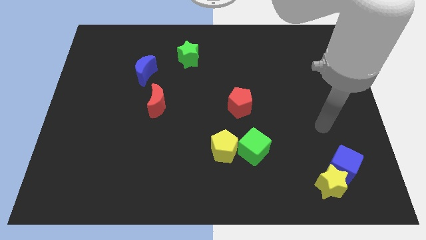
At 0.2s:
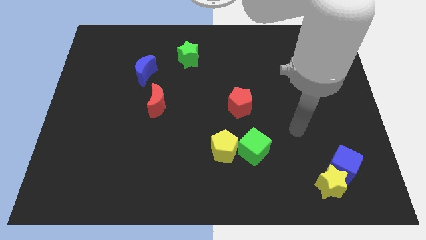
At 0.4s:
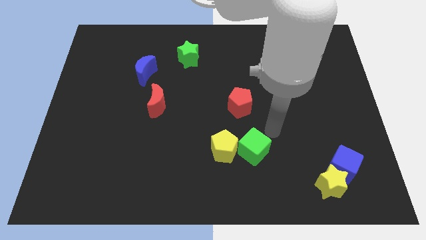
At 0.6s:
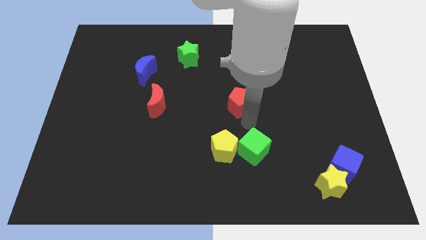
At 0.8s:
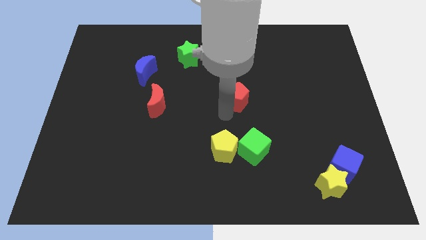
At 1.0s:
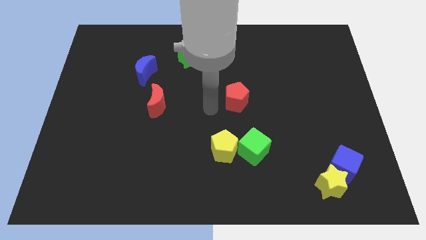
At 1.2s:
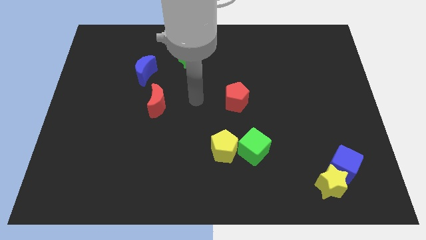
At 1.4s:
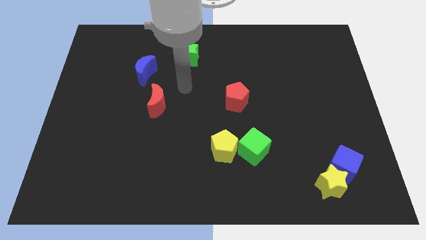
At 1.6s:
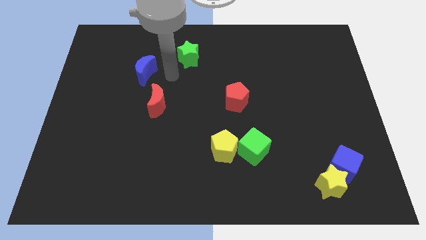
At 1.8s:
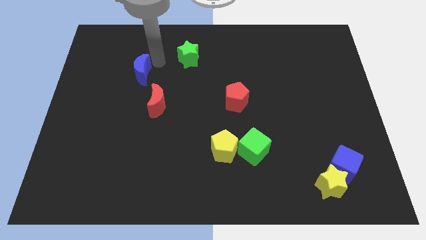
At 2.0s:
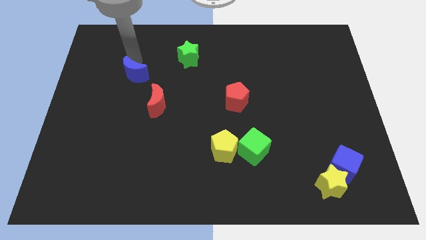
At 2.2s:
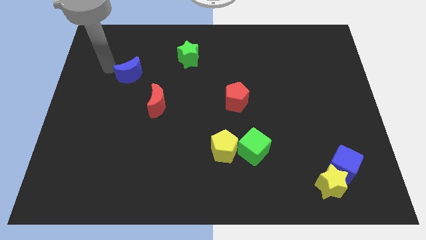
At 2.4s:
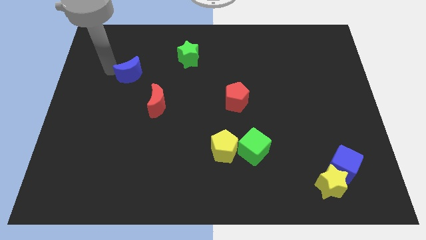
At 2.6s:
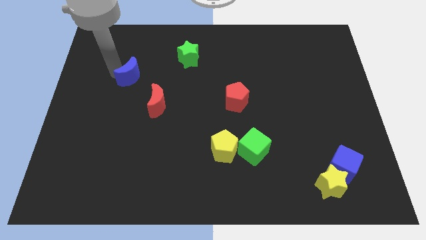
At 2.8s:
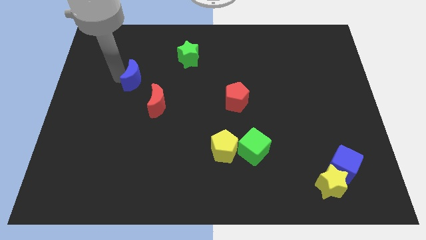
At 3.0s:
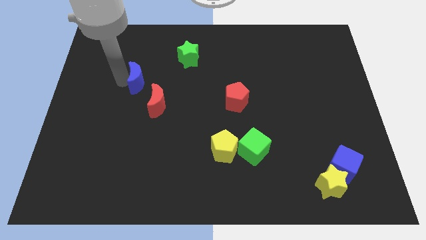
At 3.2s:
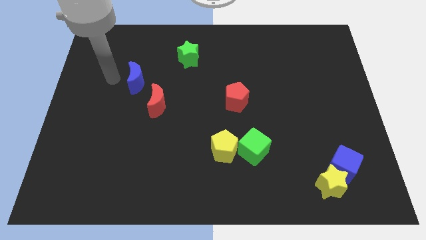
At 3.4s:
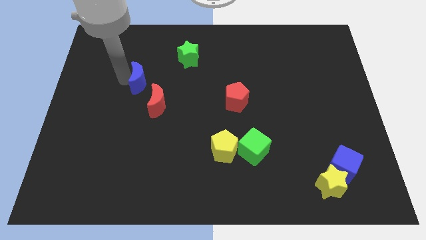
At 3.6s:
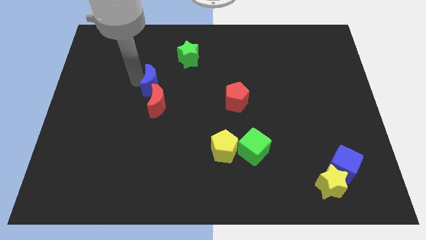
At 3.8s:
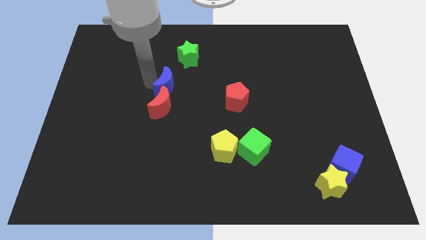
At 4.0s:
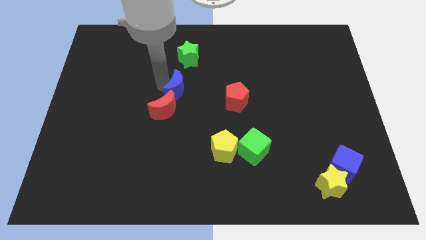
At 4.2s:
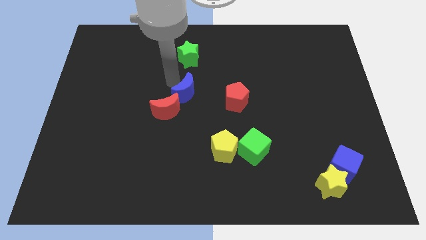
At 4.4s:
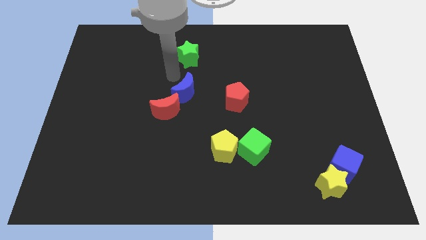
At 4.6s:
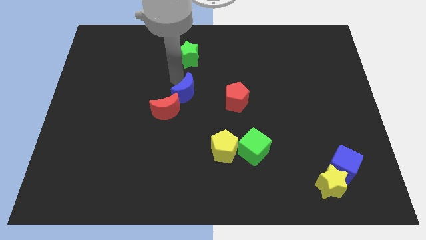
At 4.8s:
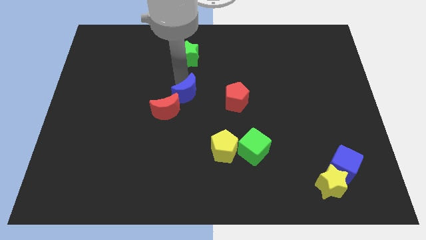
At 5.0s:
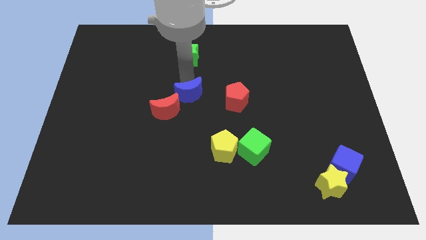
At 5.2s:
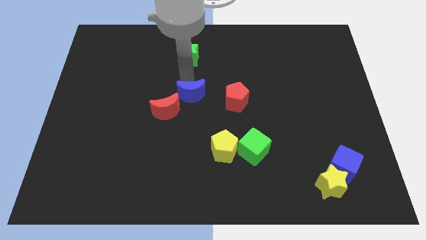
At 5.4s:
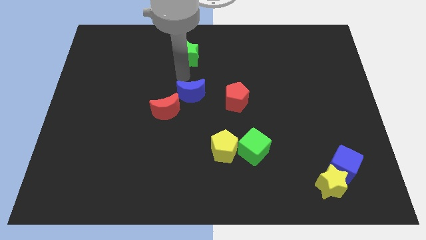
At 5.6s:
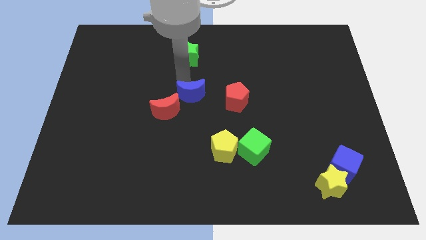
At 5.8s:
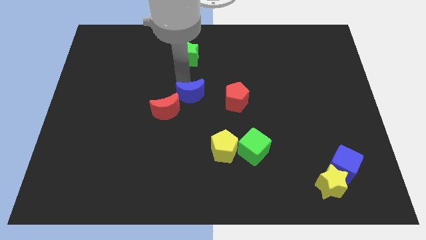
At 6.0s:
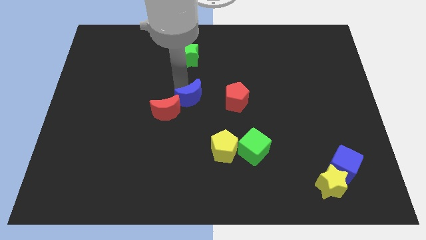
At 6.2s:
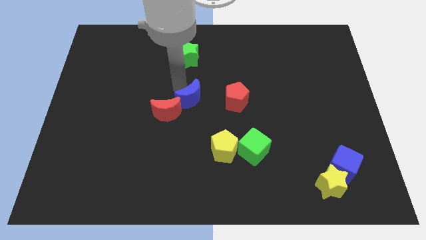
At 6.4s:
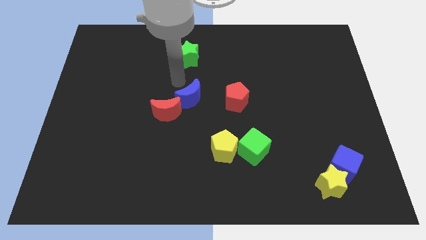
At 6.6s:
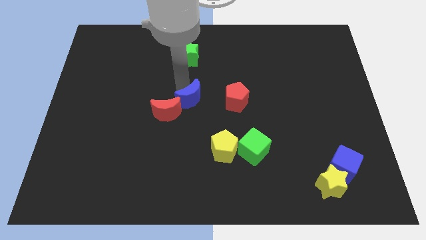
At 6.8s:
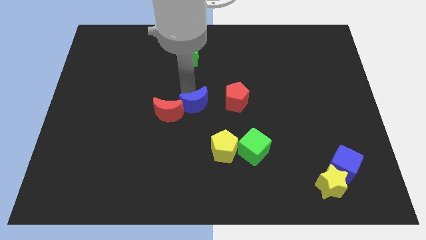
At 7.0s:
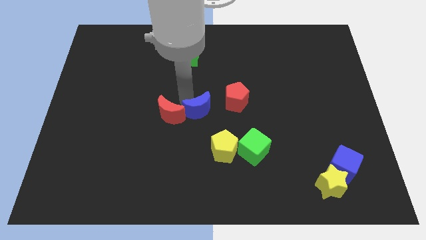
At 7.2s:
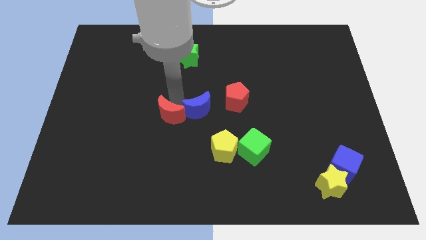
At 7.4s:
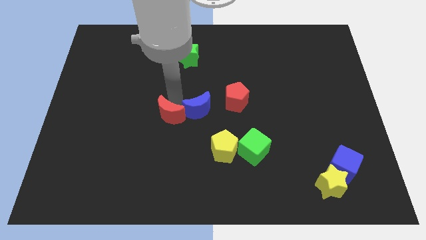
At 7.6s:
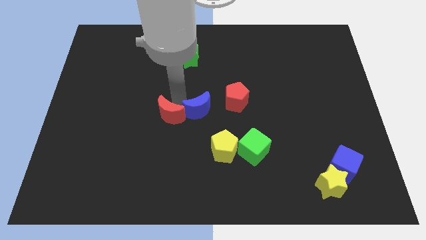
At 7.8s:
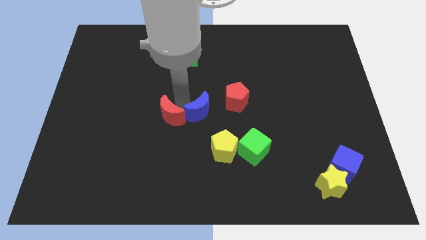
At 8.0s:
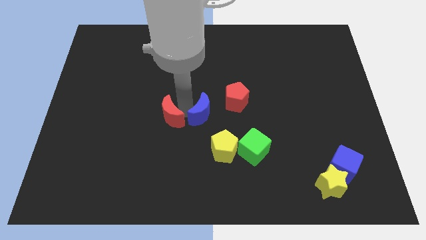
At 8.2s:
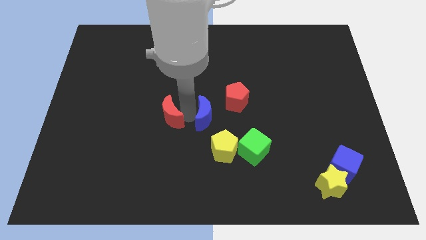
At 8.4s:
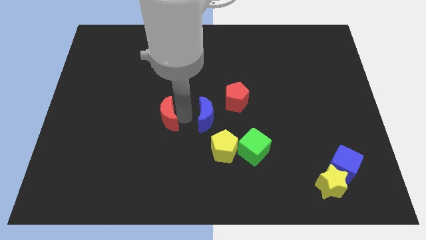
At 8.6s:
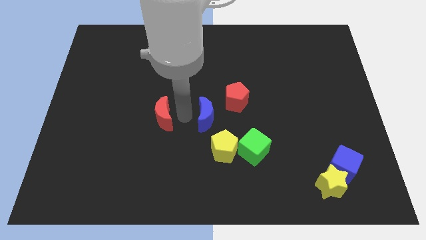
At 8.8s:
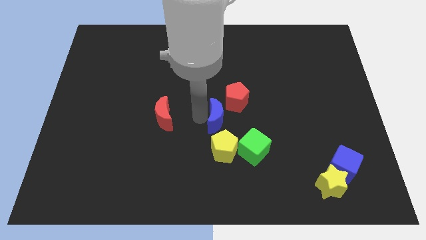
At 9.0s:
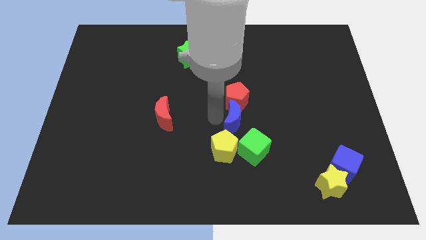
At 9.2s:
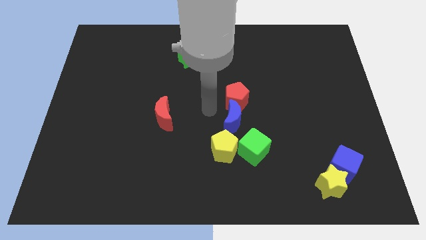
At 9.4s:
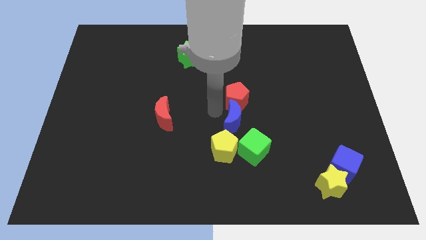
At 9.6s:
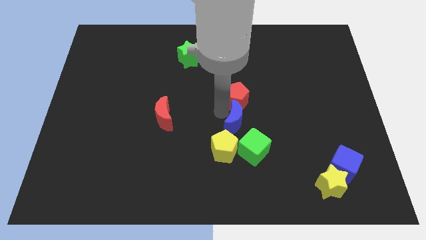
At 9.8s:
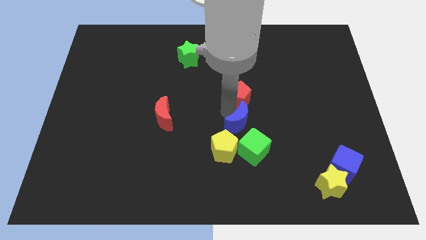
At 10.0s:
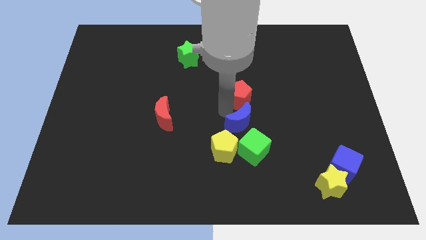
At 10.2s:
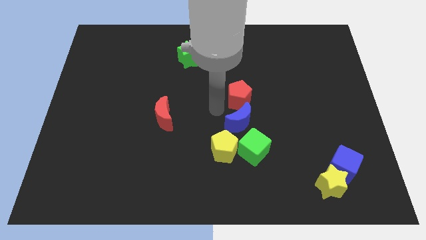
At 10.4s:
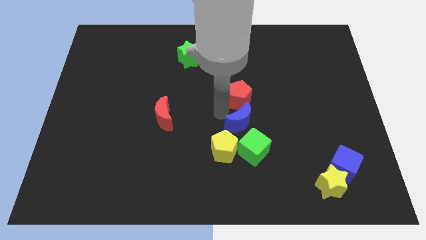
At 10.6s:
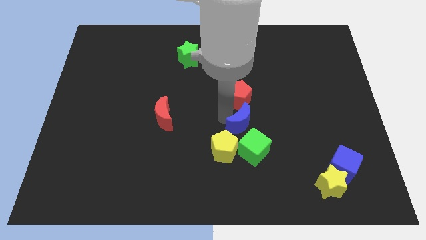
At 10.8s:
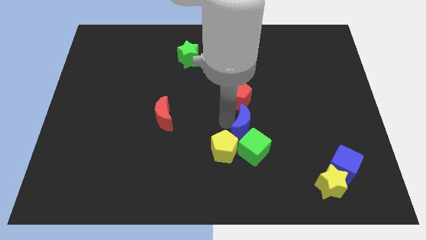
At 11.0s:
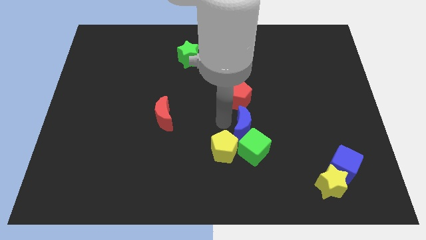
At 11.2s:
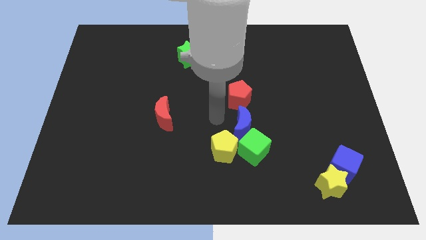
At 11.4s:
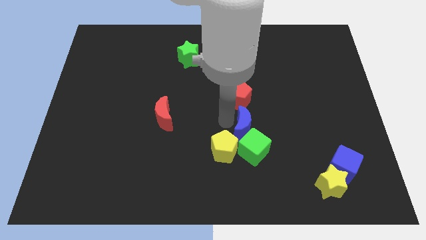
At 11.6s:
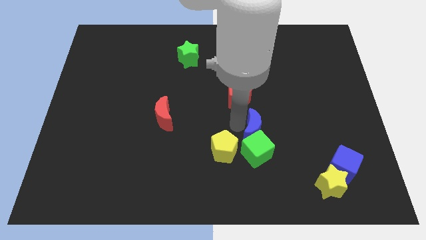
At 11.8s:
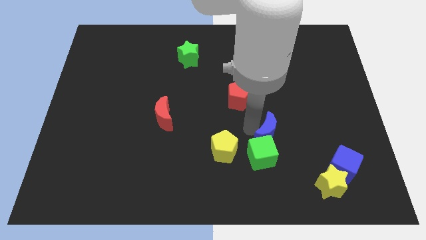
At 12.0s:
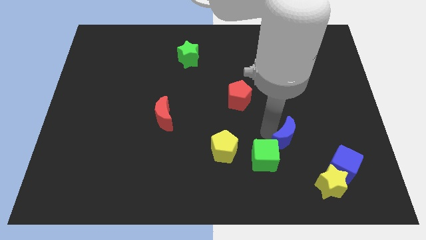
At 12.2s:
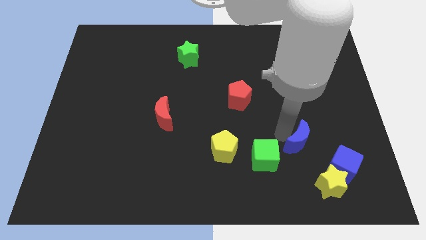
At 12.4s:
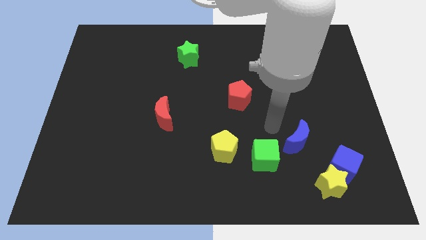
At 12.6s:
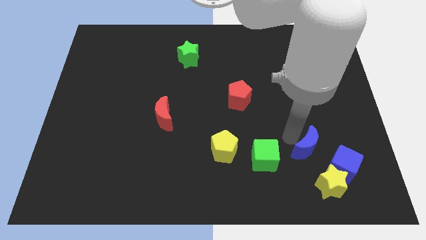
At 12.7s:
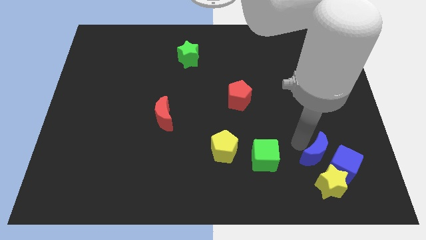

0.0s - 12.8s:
push the blue moon next to the blue cube

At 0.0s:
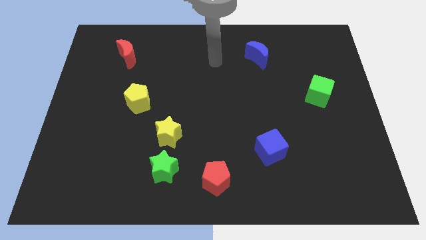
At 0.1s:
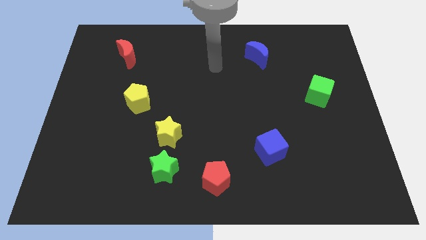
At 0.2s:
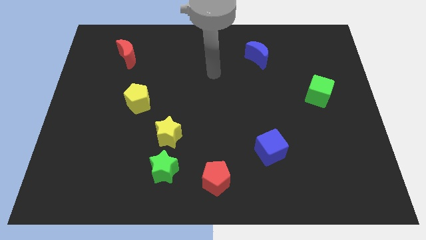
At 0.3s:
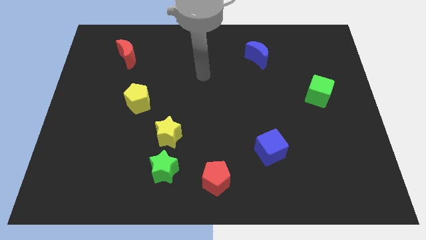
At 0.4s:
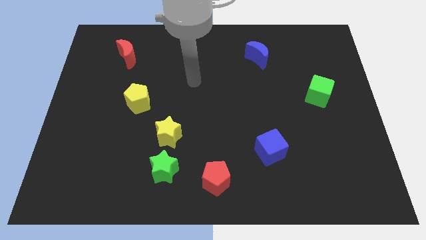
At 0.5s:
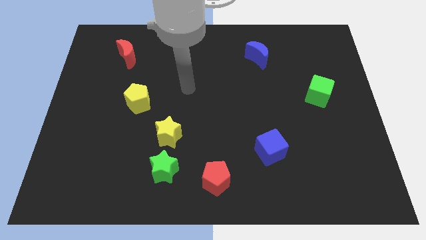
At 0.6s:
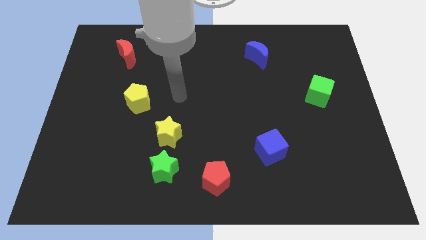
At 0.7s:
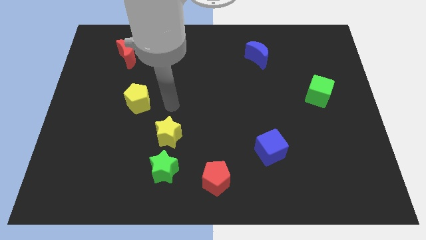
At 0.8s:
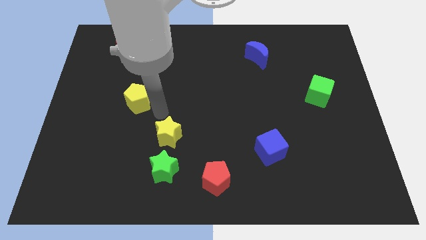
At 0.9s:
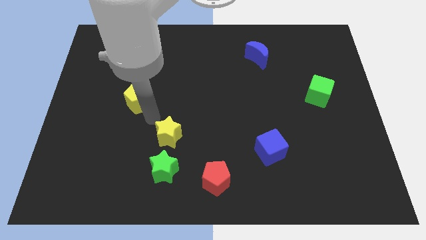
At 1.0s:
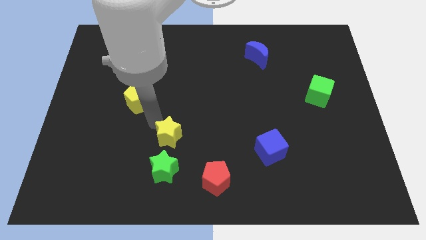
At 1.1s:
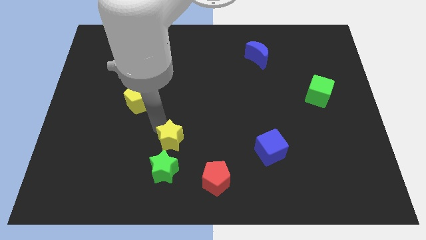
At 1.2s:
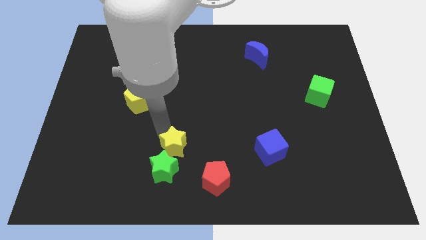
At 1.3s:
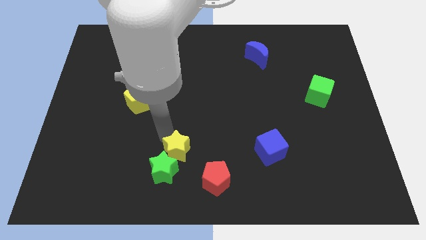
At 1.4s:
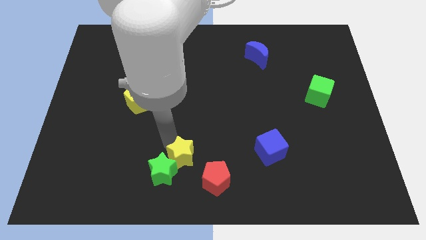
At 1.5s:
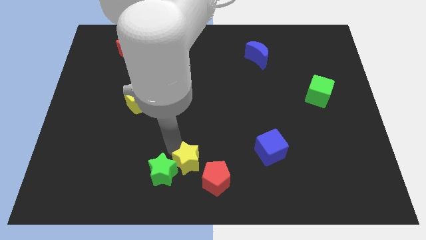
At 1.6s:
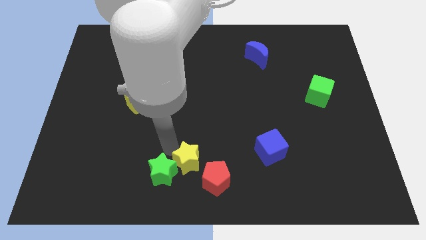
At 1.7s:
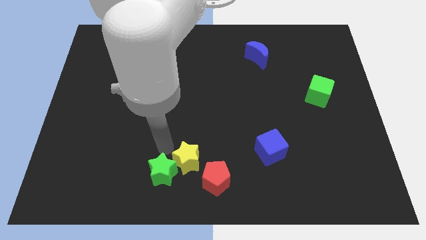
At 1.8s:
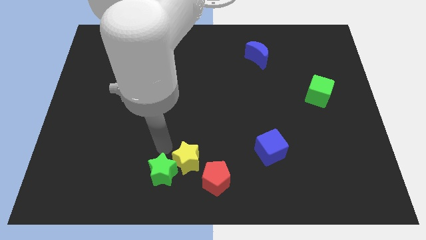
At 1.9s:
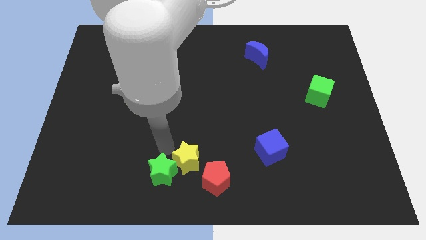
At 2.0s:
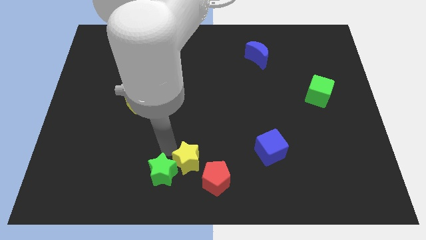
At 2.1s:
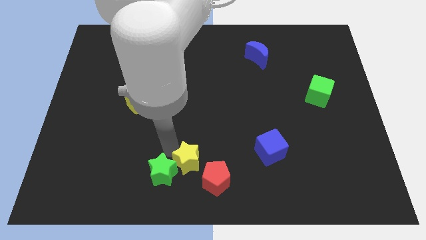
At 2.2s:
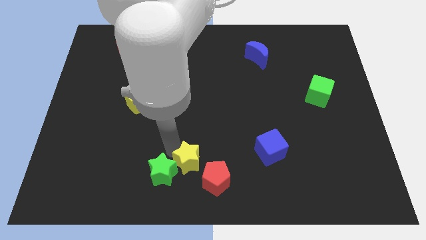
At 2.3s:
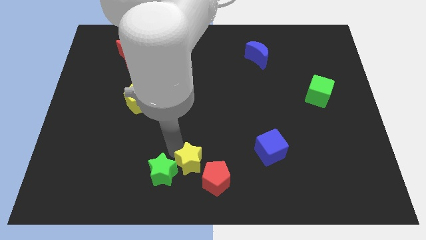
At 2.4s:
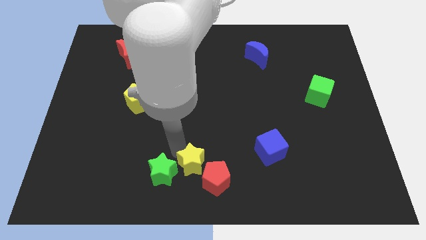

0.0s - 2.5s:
put the yellow star next to the red pentagon
